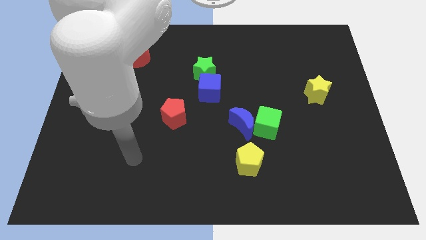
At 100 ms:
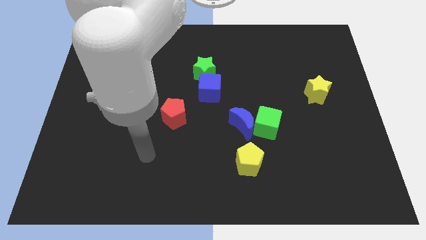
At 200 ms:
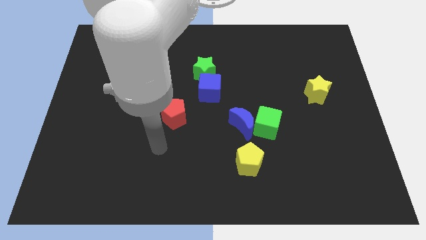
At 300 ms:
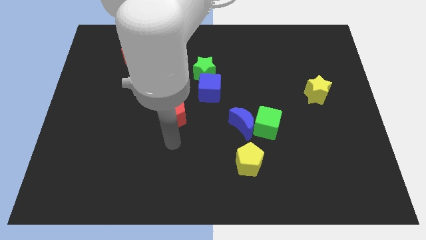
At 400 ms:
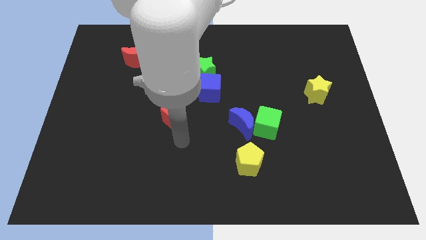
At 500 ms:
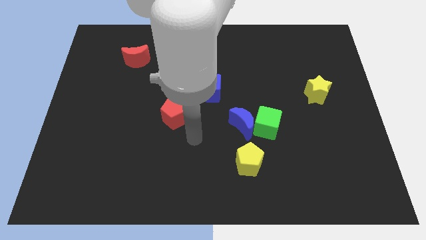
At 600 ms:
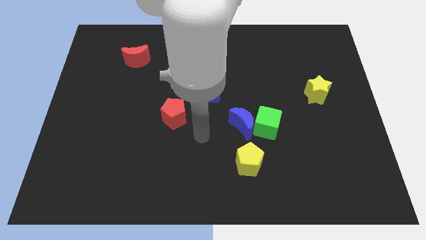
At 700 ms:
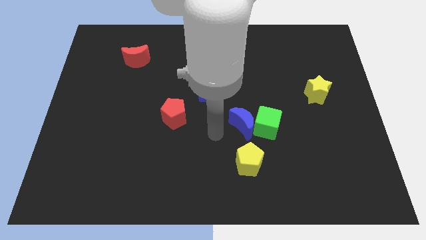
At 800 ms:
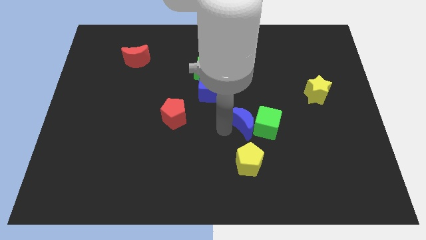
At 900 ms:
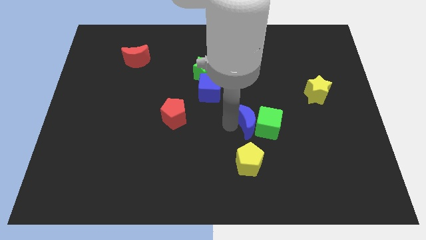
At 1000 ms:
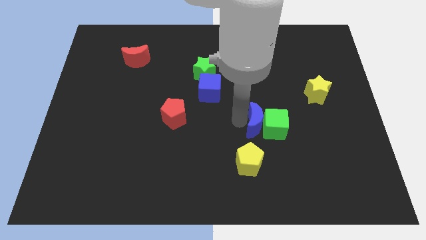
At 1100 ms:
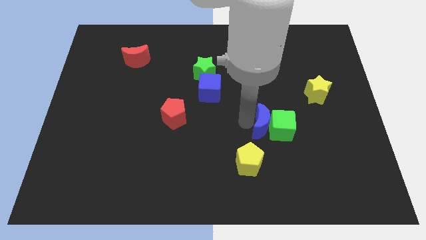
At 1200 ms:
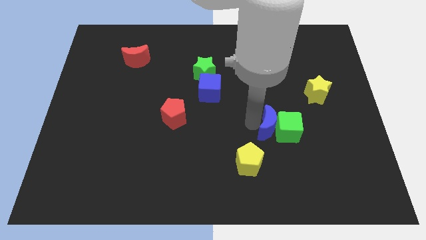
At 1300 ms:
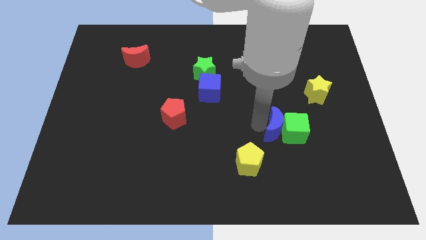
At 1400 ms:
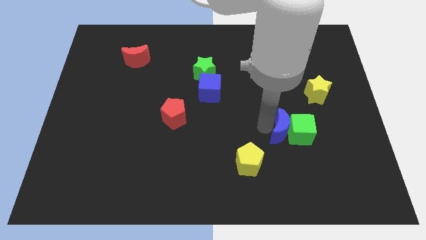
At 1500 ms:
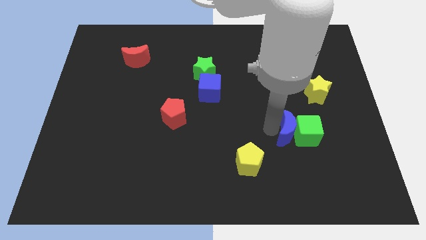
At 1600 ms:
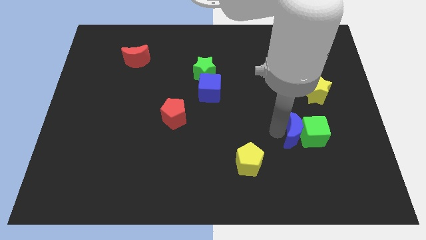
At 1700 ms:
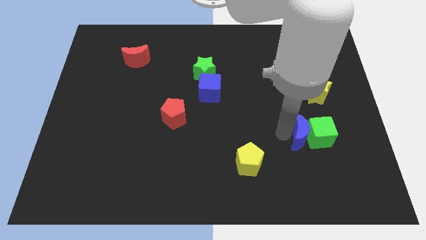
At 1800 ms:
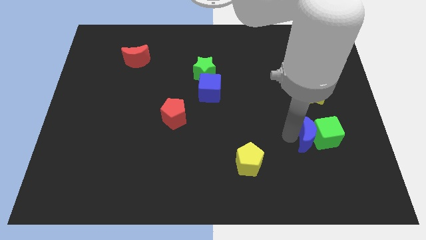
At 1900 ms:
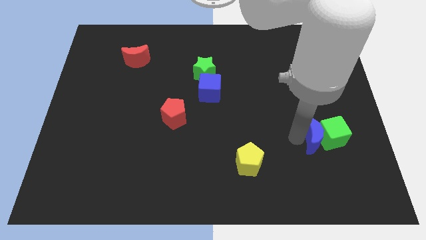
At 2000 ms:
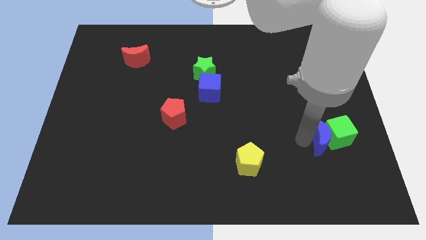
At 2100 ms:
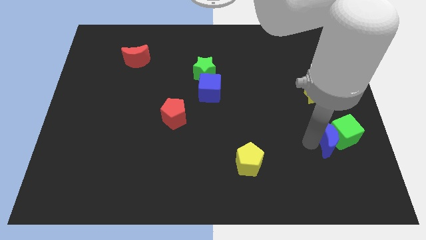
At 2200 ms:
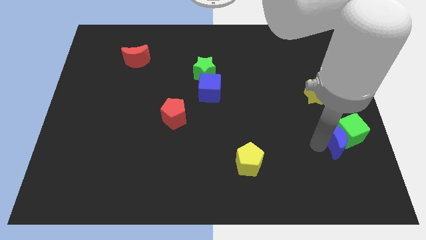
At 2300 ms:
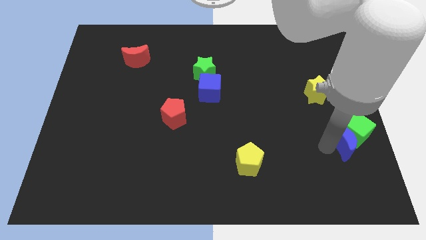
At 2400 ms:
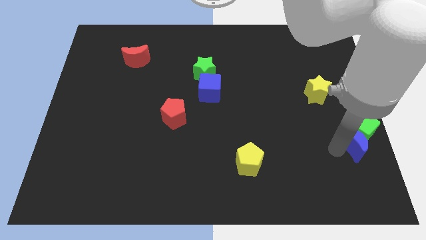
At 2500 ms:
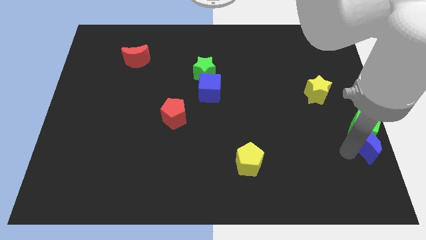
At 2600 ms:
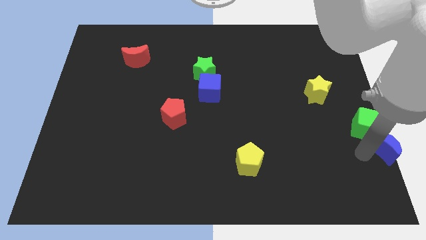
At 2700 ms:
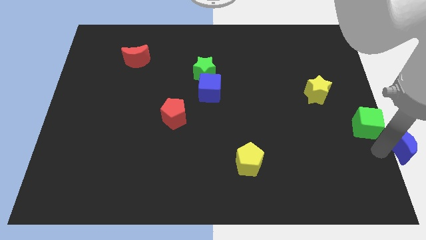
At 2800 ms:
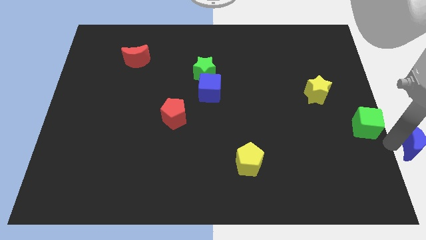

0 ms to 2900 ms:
pull the green cube apart from the blue moon

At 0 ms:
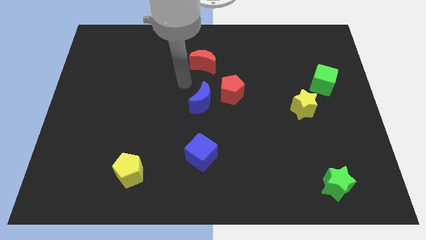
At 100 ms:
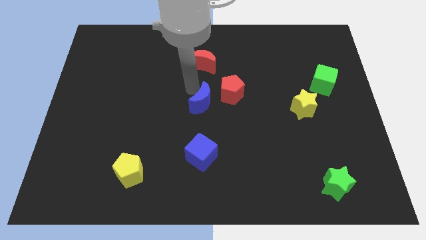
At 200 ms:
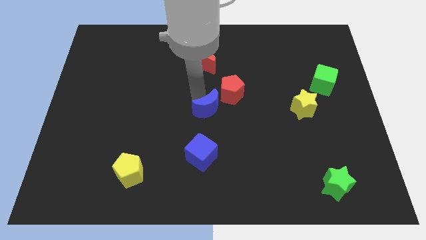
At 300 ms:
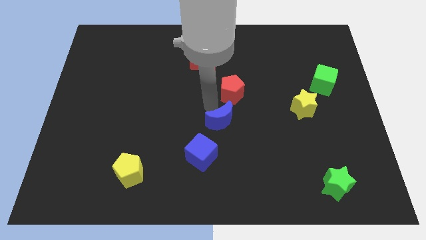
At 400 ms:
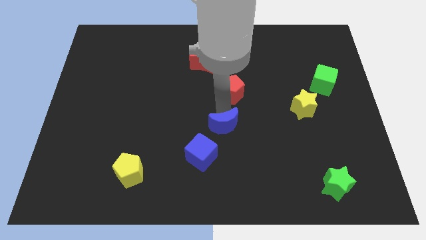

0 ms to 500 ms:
move the red pentagon away from the blue moon

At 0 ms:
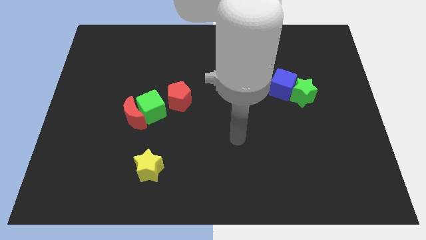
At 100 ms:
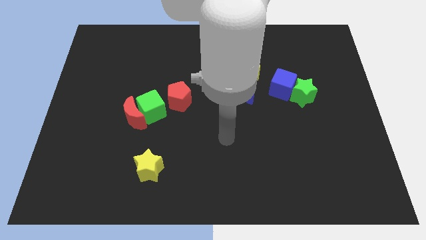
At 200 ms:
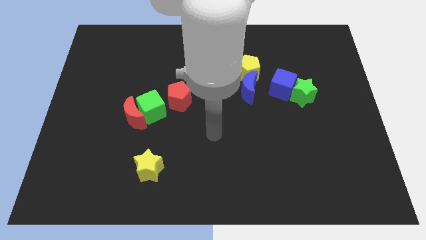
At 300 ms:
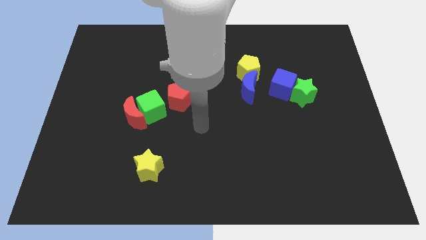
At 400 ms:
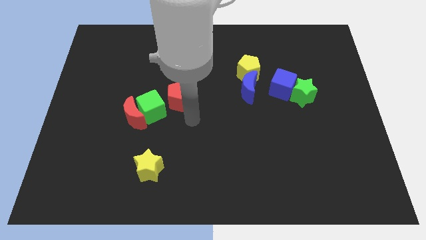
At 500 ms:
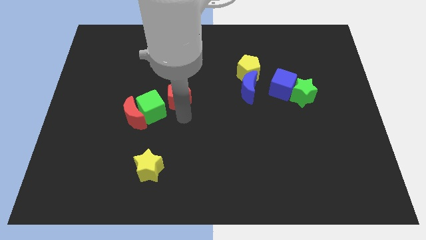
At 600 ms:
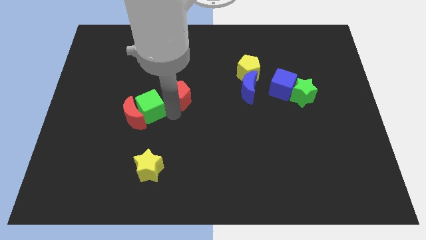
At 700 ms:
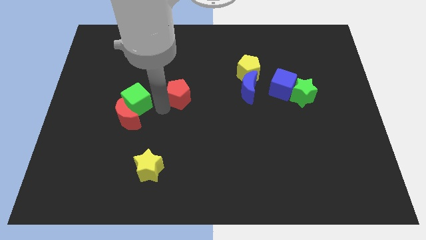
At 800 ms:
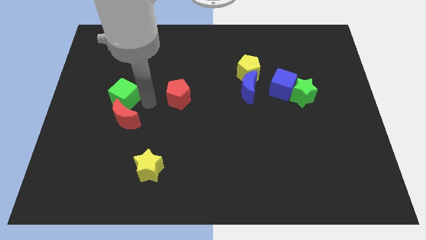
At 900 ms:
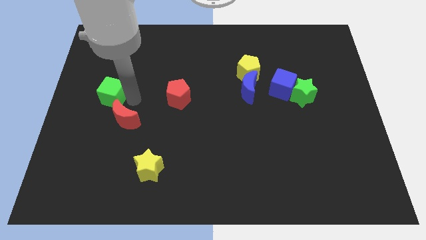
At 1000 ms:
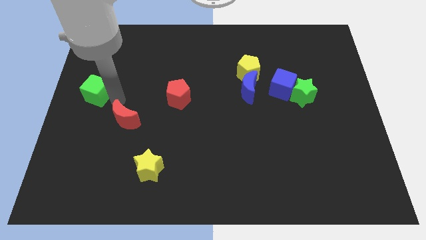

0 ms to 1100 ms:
separate the red moon from the green cube

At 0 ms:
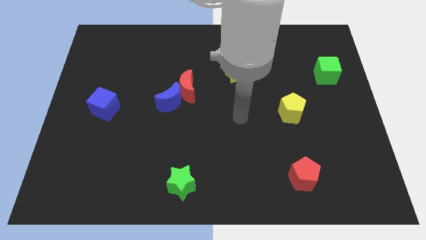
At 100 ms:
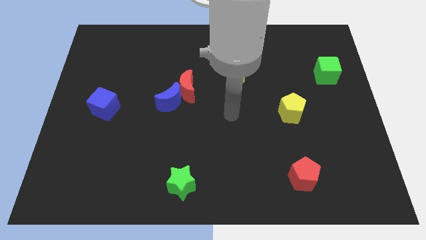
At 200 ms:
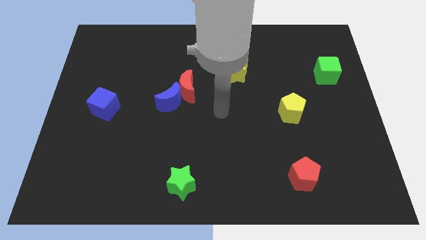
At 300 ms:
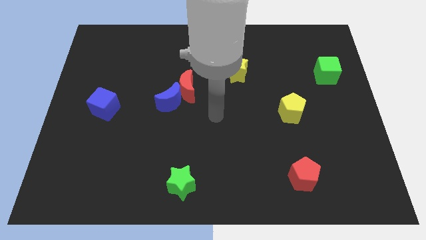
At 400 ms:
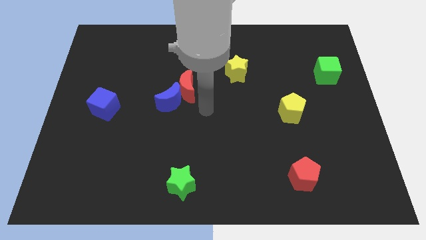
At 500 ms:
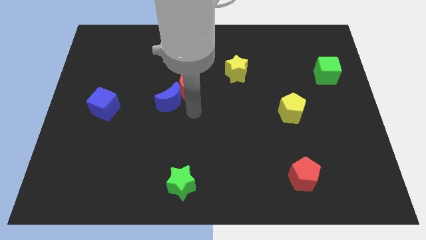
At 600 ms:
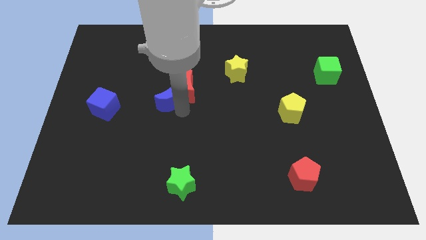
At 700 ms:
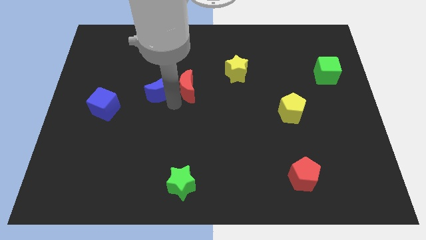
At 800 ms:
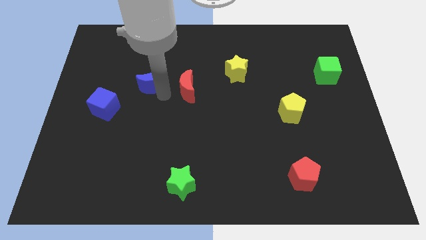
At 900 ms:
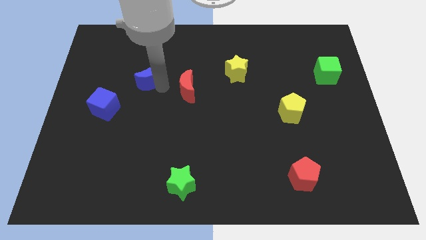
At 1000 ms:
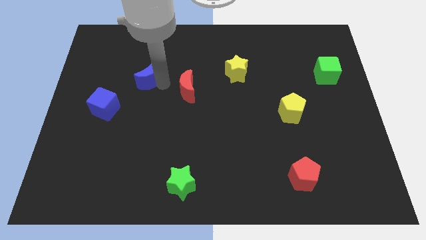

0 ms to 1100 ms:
pull the red moon apart from the blue moon

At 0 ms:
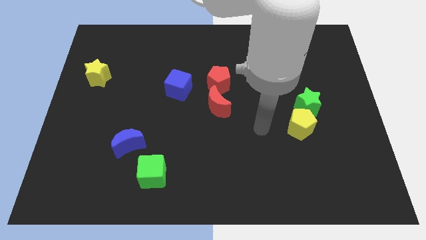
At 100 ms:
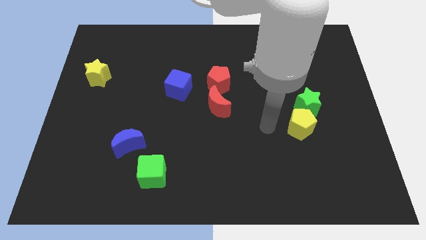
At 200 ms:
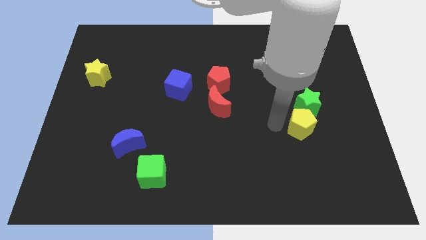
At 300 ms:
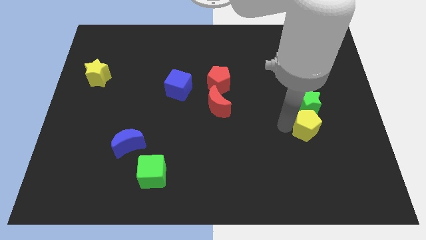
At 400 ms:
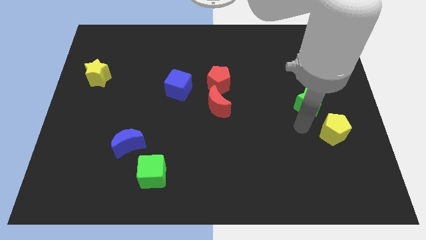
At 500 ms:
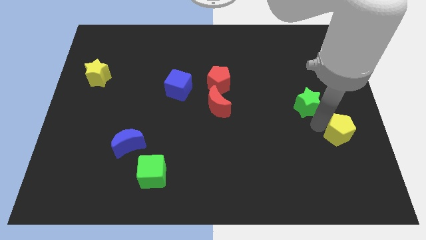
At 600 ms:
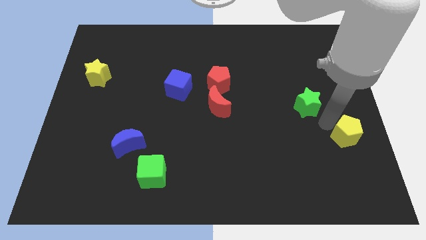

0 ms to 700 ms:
move the green star away from the yellow pentagon

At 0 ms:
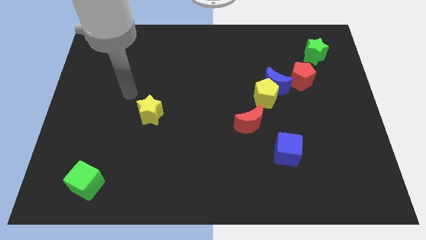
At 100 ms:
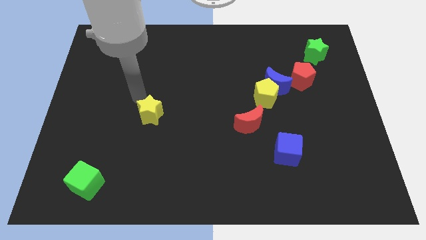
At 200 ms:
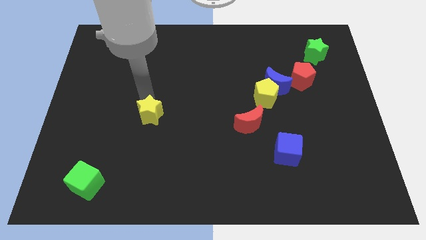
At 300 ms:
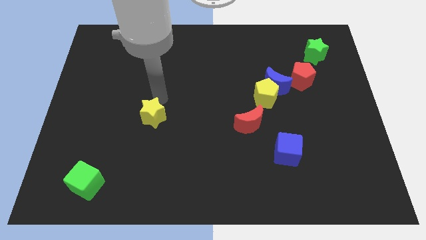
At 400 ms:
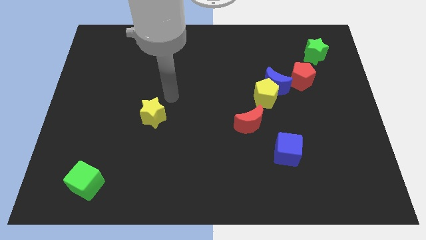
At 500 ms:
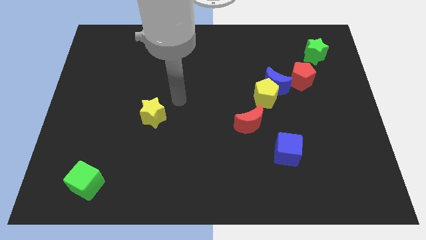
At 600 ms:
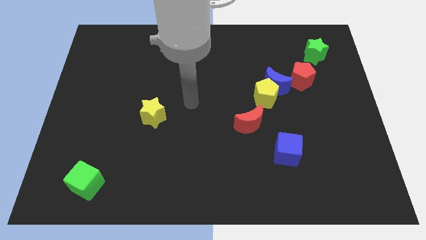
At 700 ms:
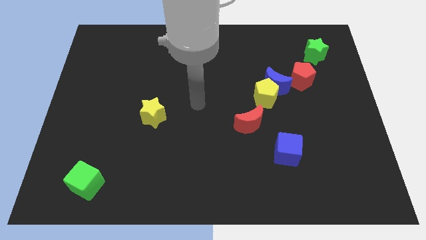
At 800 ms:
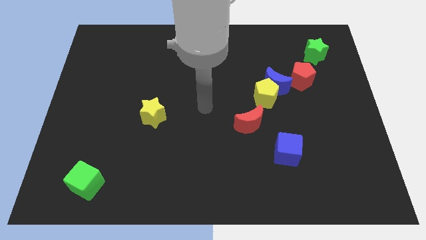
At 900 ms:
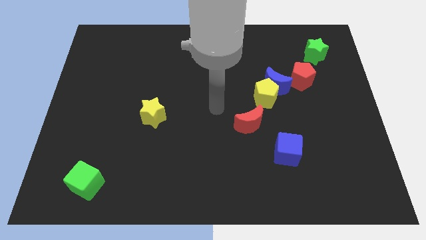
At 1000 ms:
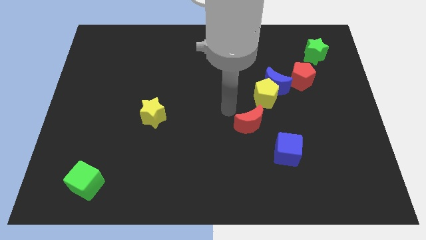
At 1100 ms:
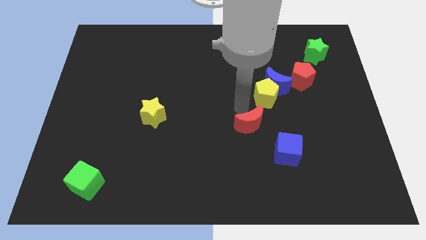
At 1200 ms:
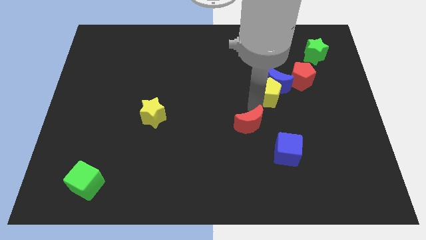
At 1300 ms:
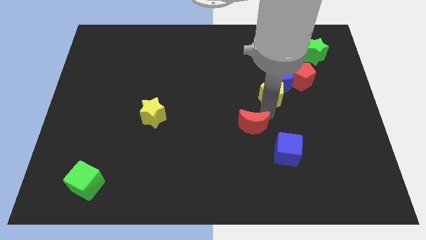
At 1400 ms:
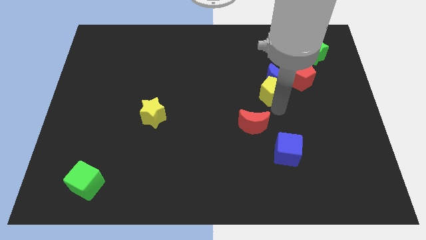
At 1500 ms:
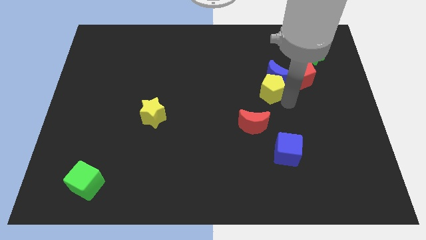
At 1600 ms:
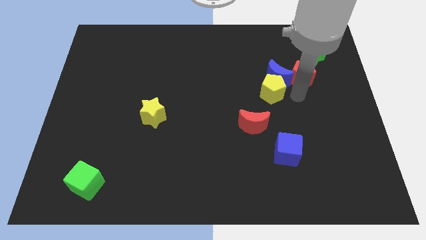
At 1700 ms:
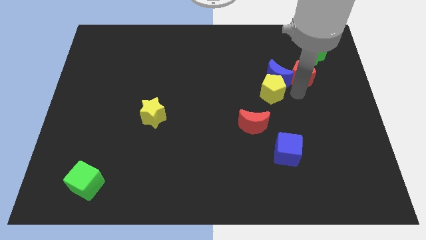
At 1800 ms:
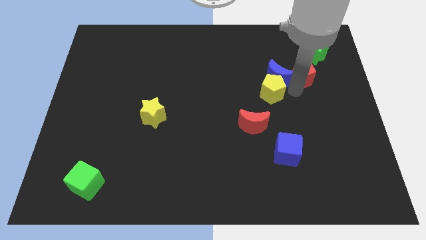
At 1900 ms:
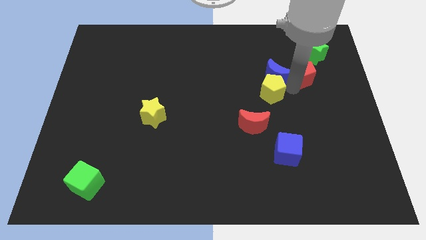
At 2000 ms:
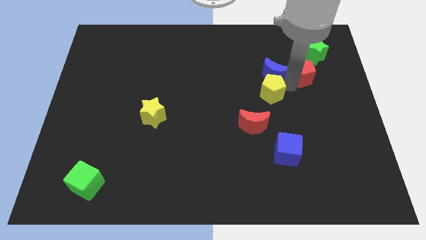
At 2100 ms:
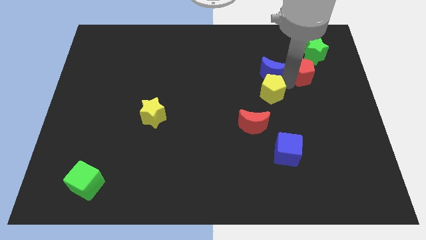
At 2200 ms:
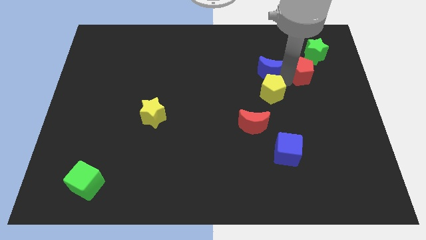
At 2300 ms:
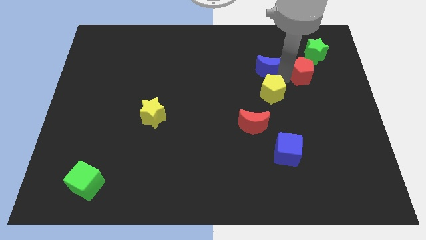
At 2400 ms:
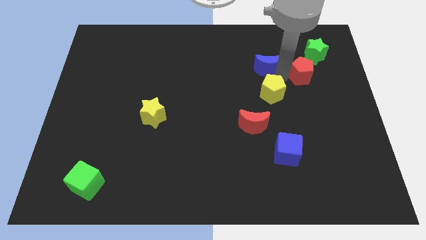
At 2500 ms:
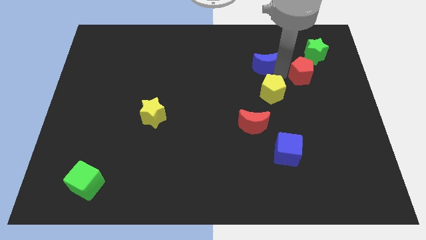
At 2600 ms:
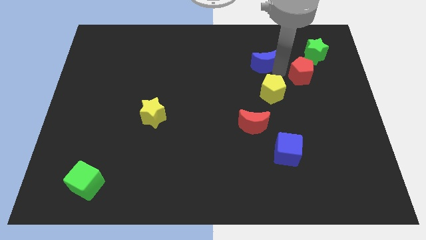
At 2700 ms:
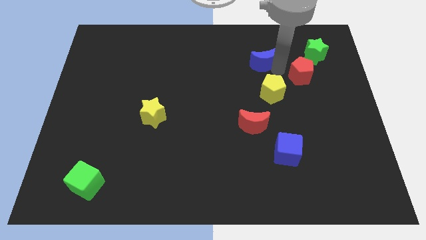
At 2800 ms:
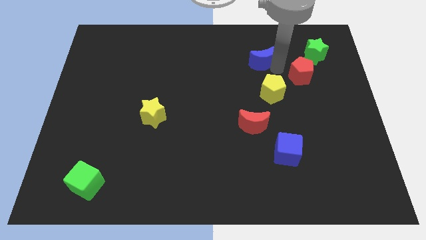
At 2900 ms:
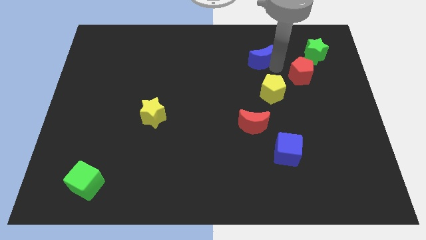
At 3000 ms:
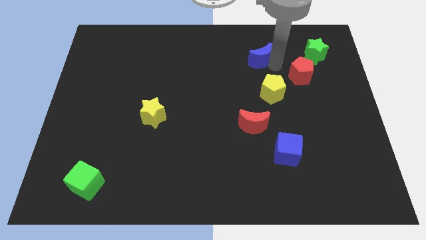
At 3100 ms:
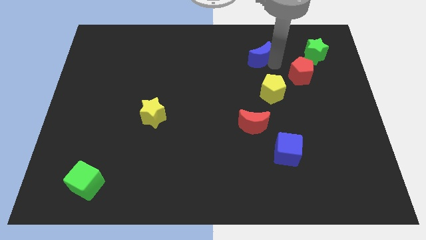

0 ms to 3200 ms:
separate the blue moon from the yellow pentagon and red pentagon

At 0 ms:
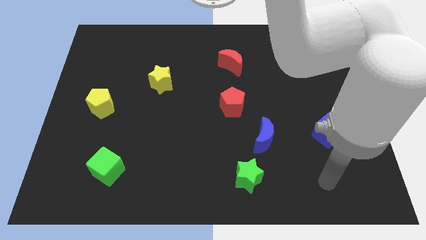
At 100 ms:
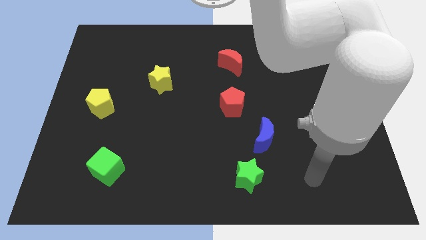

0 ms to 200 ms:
separate the blue moon from the green star
